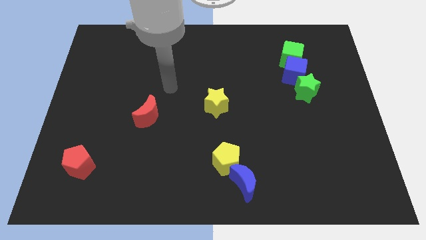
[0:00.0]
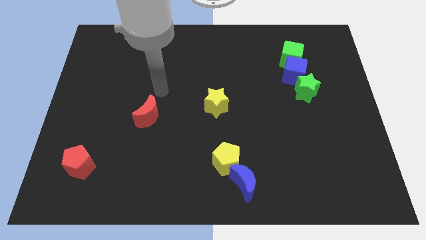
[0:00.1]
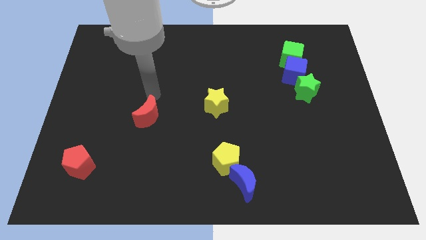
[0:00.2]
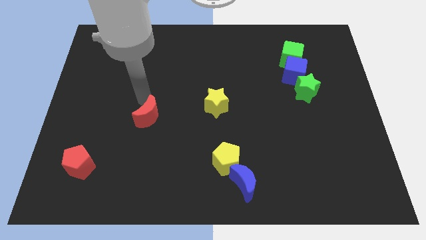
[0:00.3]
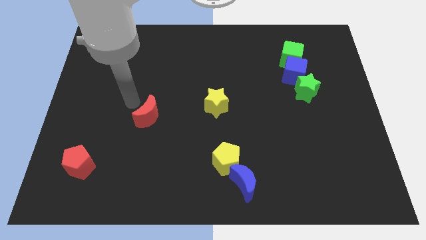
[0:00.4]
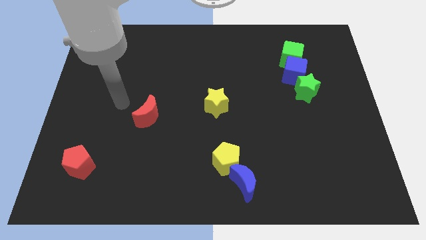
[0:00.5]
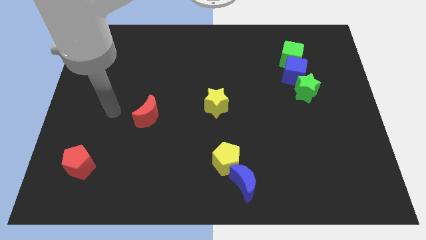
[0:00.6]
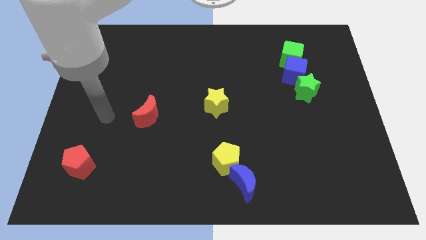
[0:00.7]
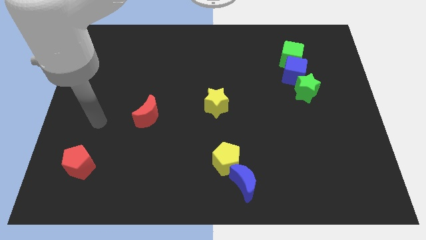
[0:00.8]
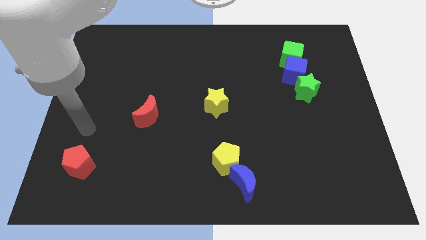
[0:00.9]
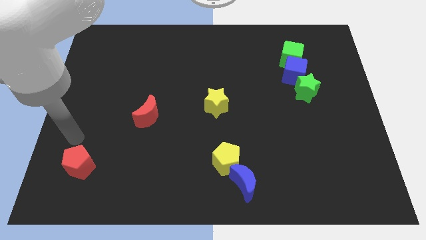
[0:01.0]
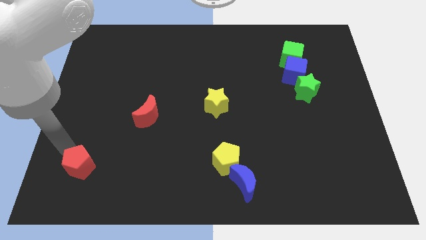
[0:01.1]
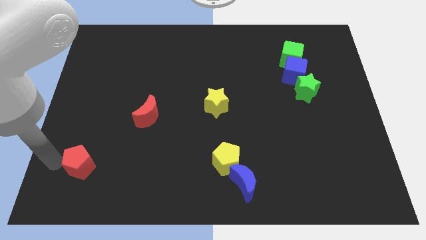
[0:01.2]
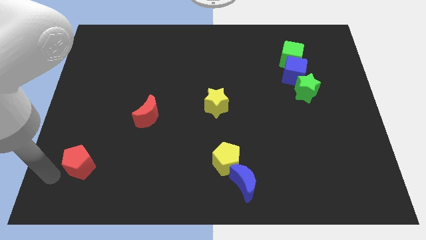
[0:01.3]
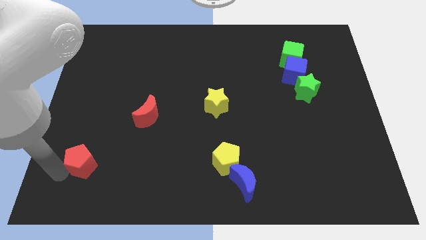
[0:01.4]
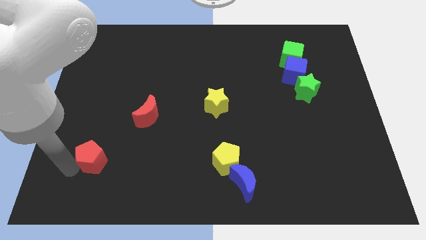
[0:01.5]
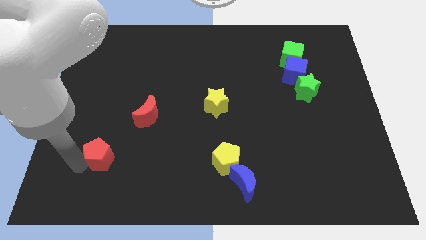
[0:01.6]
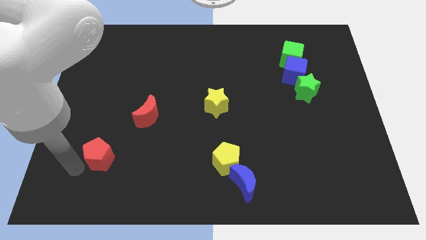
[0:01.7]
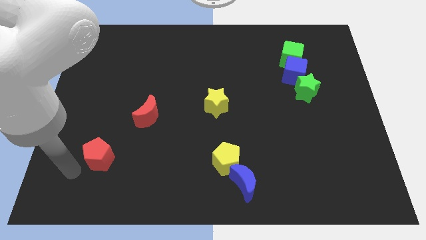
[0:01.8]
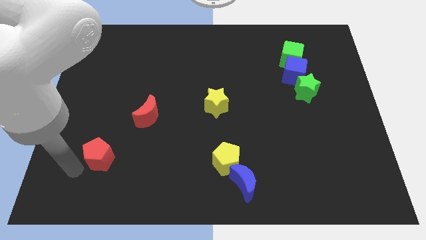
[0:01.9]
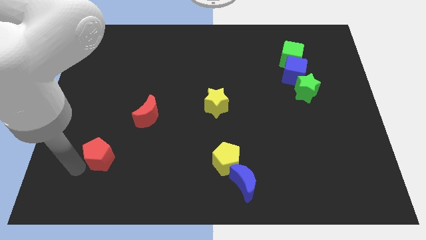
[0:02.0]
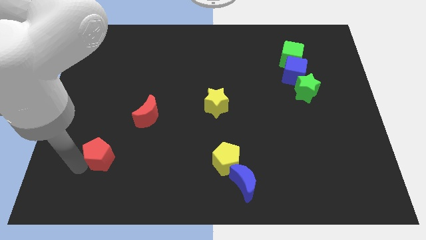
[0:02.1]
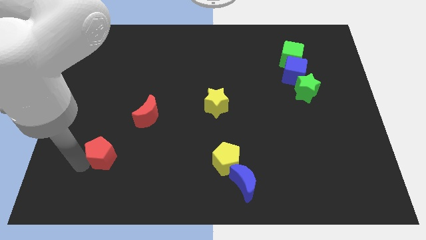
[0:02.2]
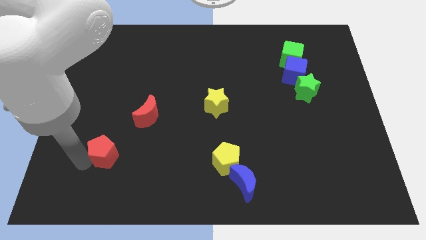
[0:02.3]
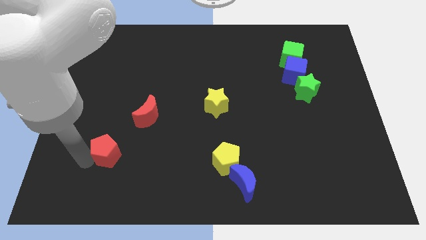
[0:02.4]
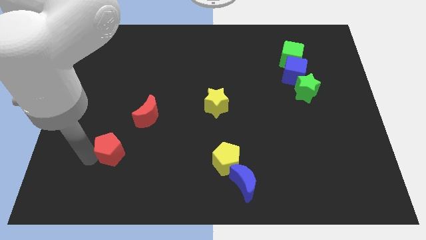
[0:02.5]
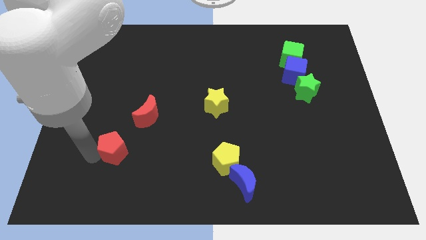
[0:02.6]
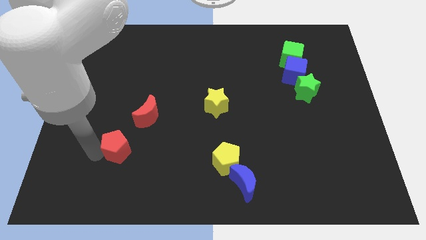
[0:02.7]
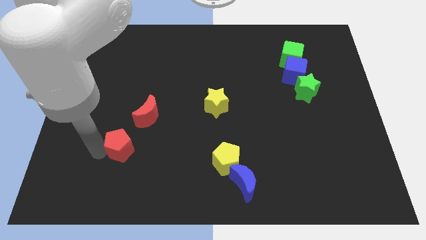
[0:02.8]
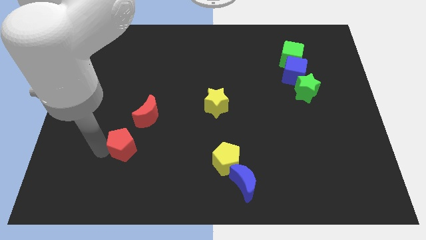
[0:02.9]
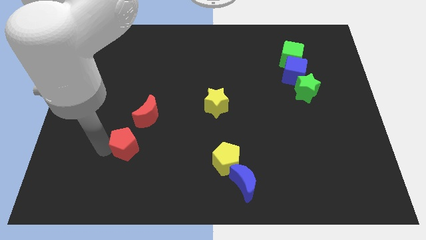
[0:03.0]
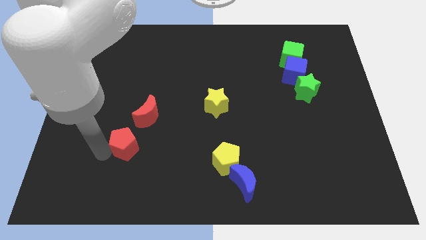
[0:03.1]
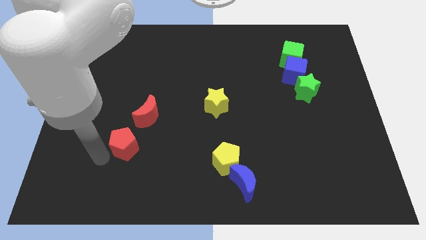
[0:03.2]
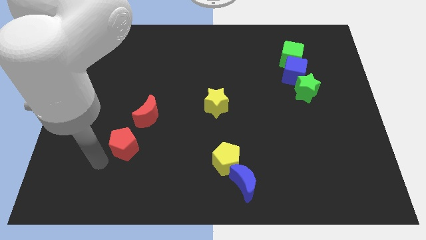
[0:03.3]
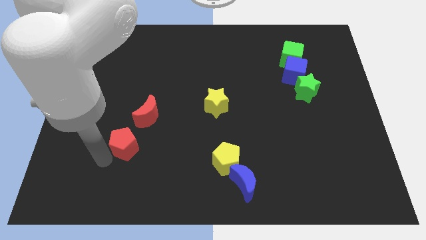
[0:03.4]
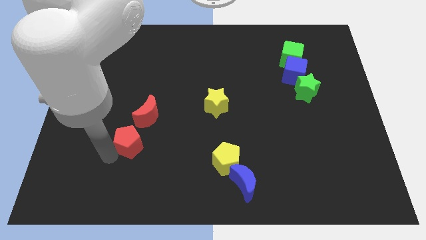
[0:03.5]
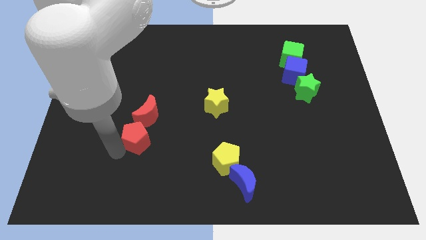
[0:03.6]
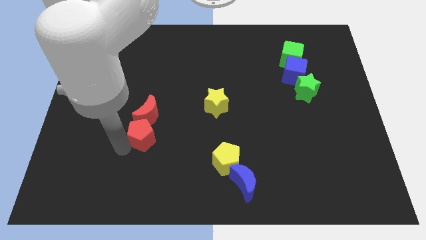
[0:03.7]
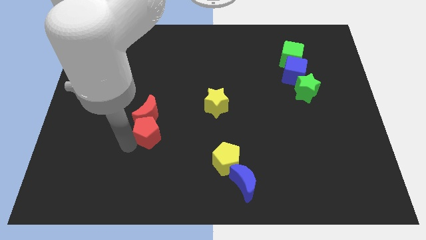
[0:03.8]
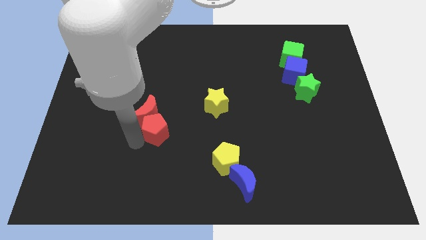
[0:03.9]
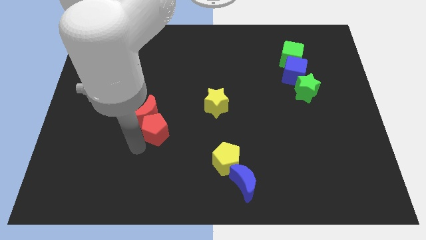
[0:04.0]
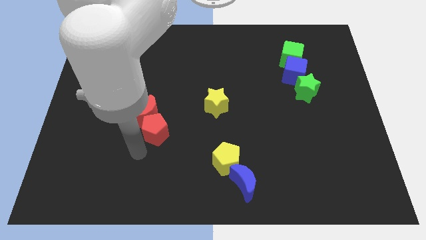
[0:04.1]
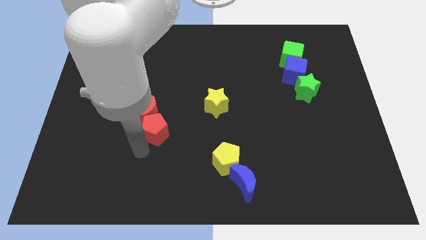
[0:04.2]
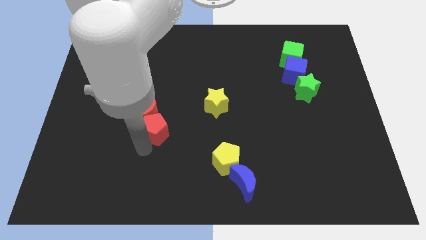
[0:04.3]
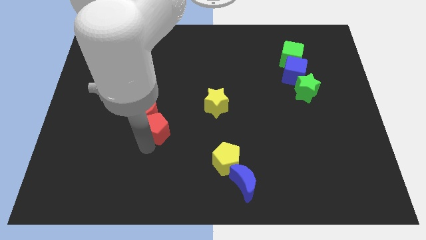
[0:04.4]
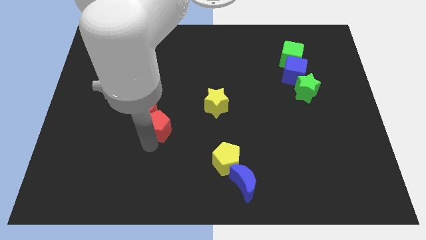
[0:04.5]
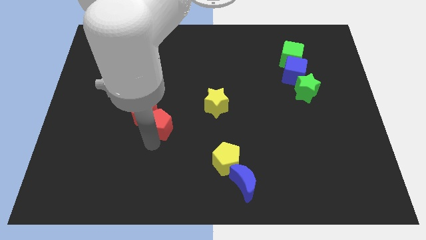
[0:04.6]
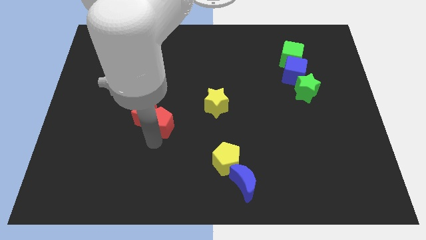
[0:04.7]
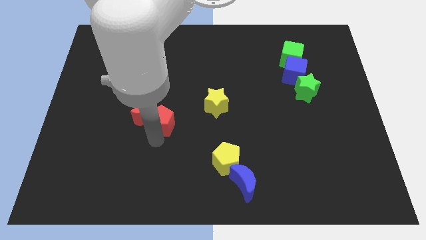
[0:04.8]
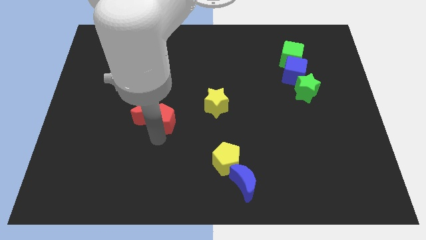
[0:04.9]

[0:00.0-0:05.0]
push the red pentagon to the top right of the red moon

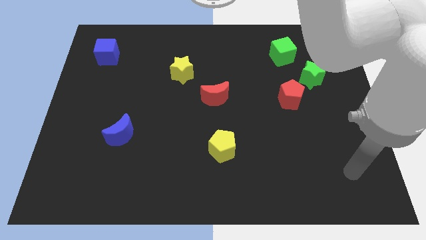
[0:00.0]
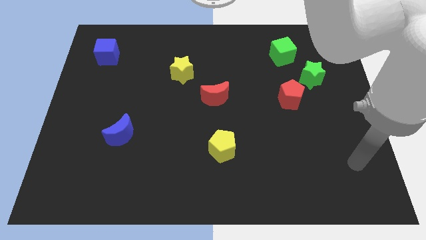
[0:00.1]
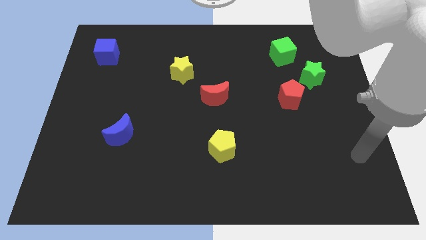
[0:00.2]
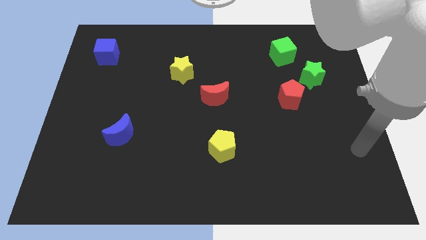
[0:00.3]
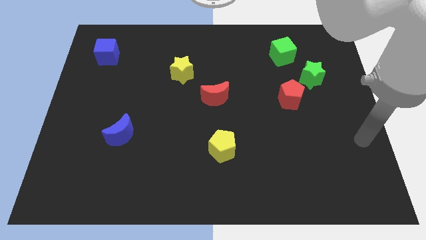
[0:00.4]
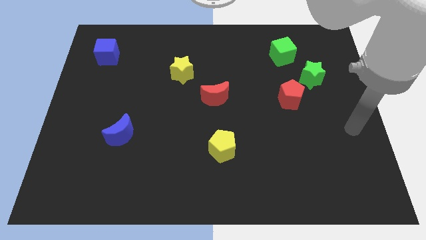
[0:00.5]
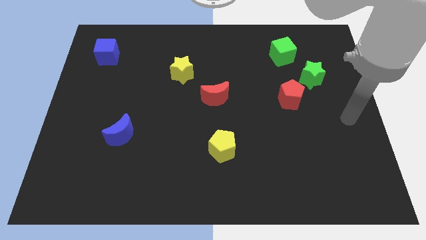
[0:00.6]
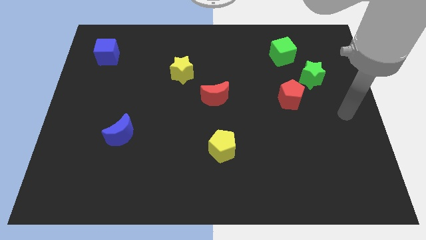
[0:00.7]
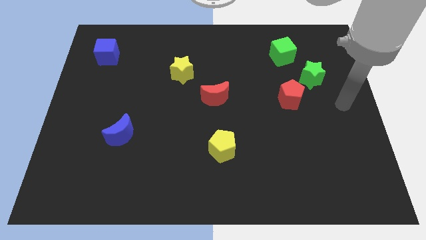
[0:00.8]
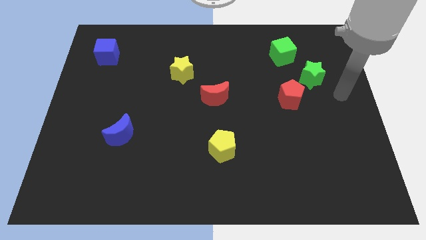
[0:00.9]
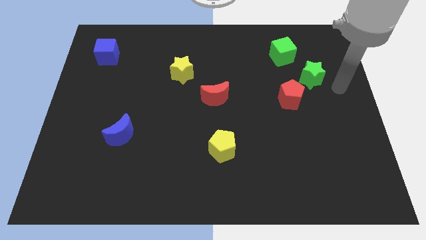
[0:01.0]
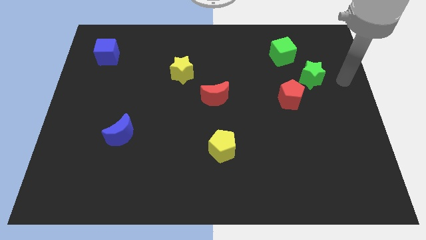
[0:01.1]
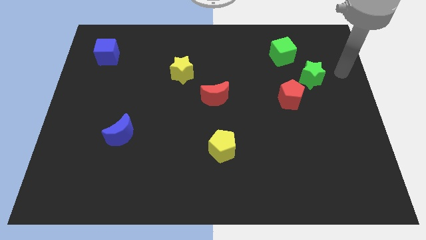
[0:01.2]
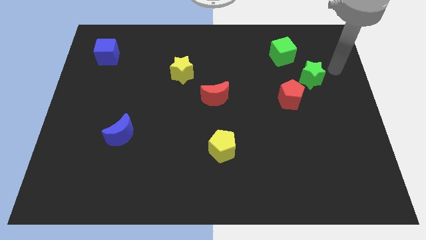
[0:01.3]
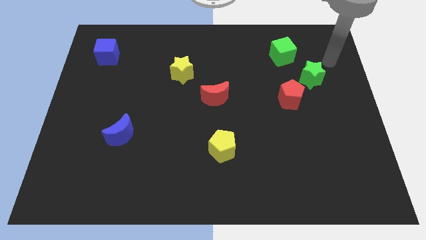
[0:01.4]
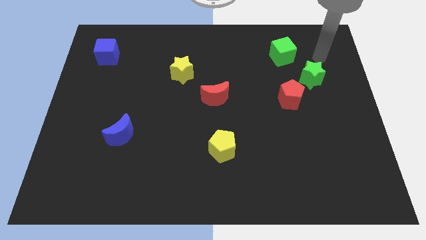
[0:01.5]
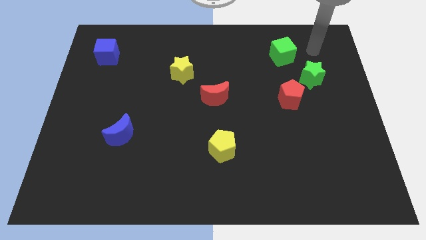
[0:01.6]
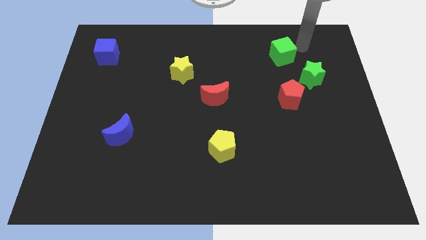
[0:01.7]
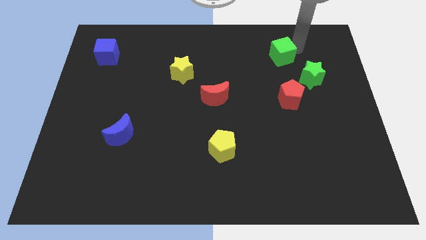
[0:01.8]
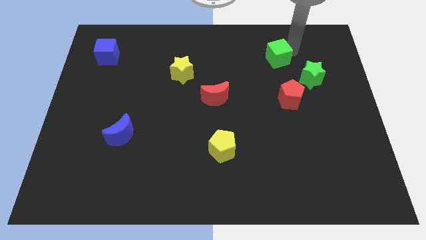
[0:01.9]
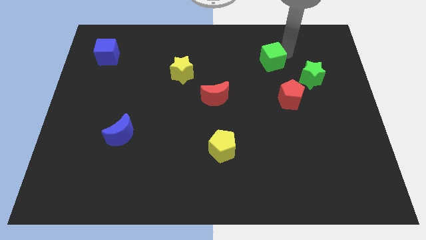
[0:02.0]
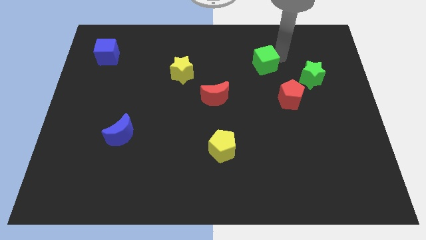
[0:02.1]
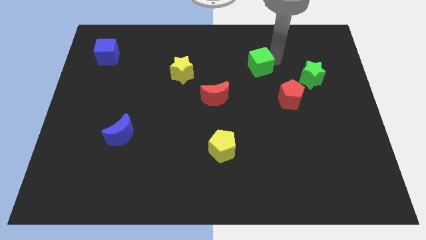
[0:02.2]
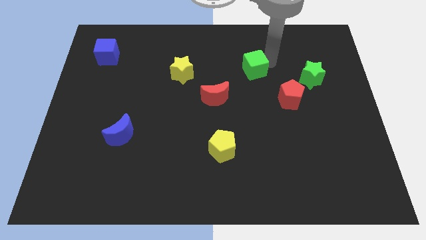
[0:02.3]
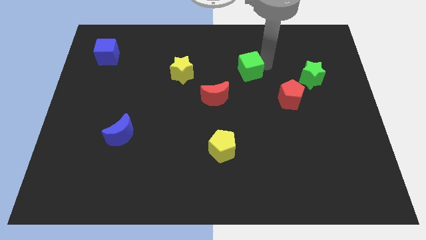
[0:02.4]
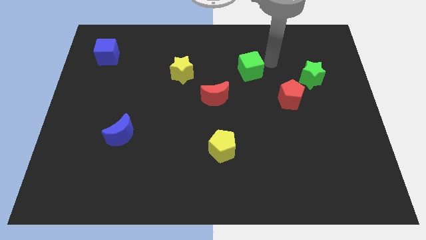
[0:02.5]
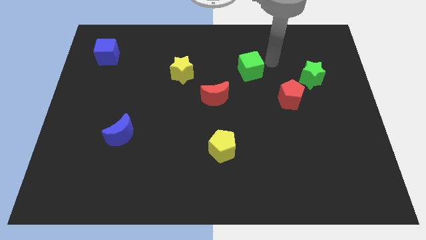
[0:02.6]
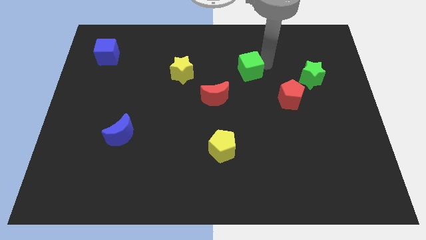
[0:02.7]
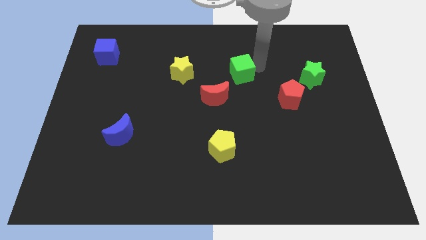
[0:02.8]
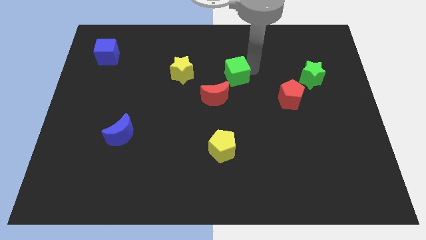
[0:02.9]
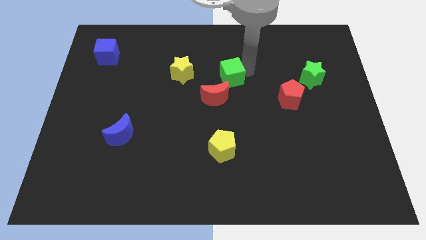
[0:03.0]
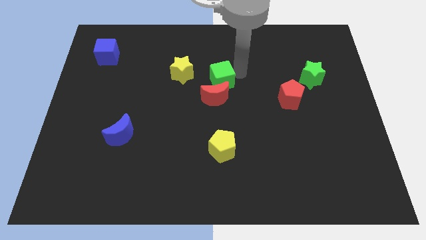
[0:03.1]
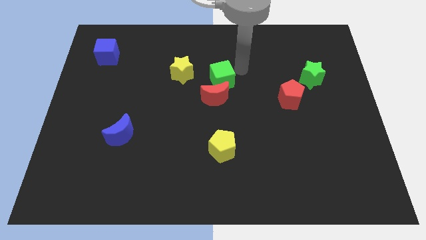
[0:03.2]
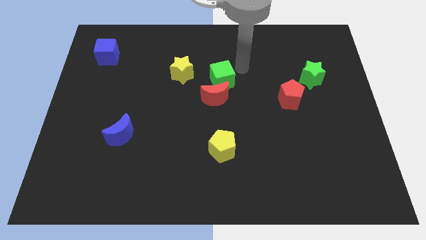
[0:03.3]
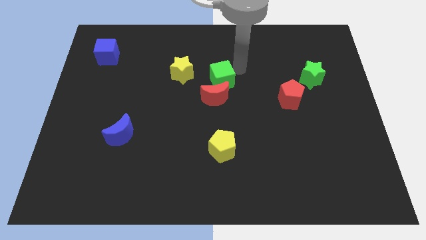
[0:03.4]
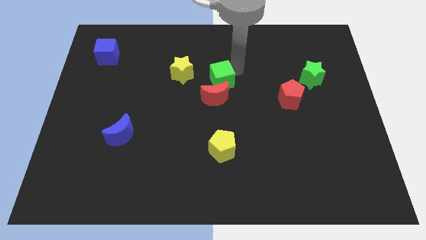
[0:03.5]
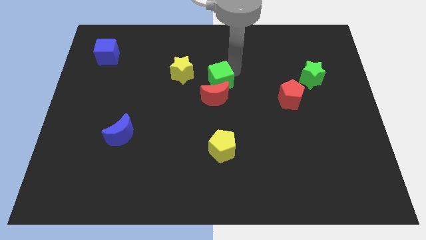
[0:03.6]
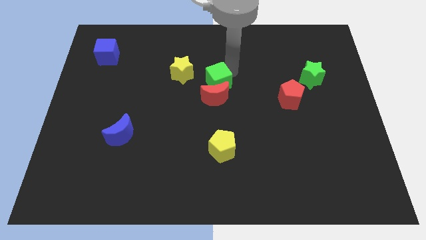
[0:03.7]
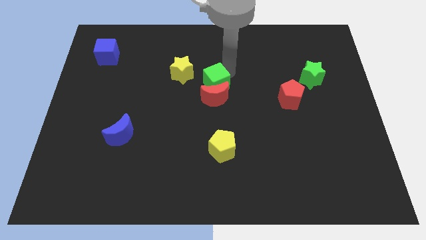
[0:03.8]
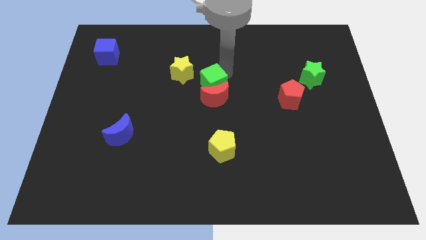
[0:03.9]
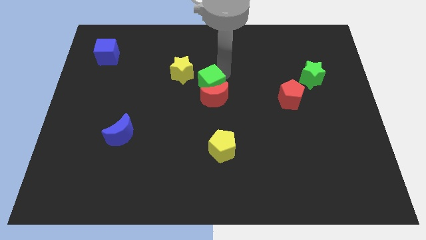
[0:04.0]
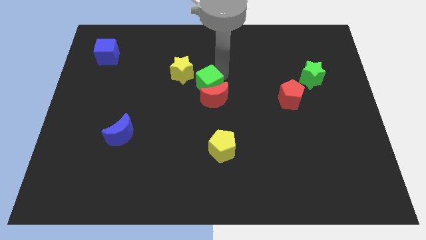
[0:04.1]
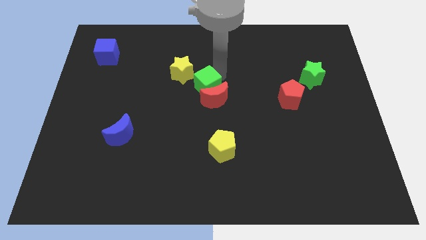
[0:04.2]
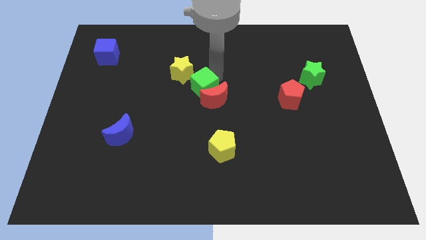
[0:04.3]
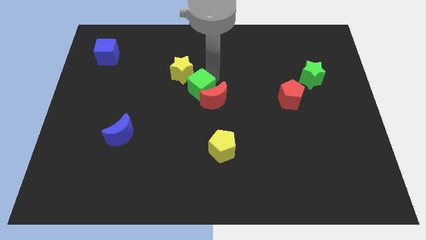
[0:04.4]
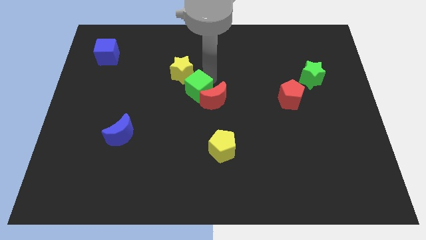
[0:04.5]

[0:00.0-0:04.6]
move the green cube to the bottom of the yellow star
